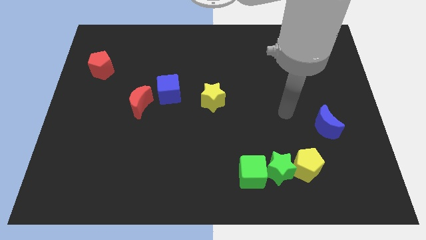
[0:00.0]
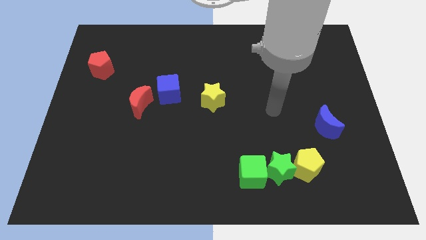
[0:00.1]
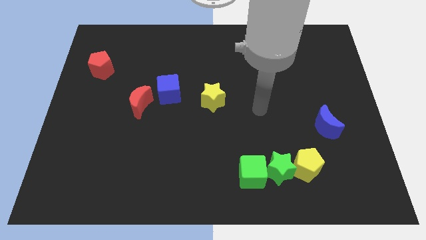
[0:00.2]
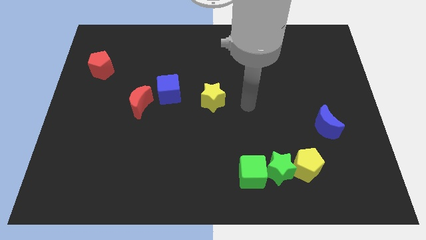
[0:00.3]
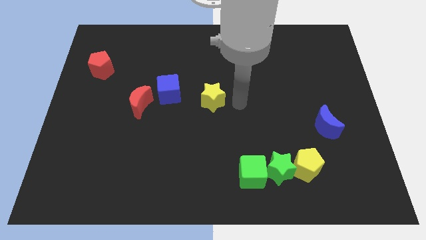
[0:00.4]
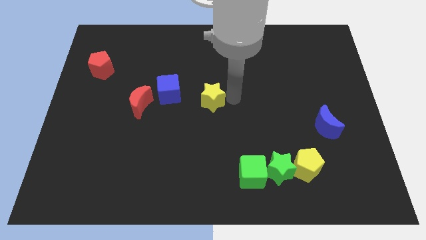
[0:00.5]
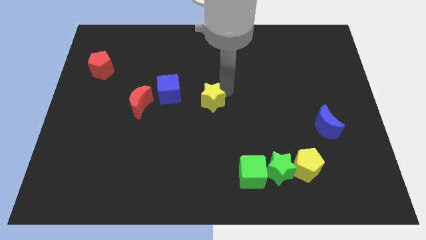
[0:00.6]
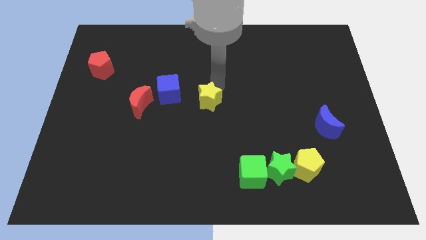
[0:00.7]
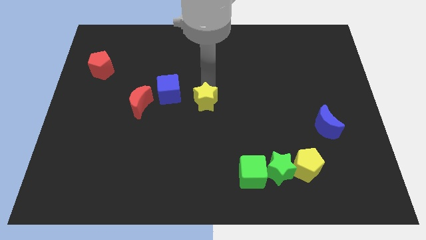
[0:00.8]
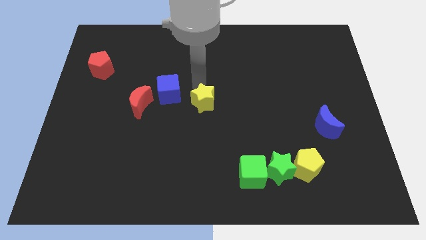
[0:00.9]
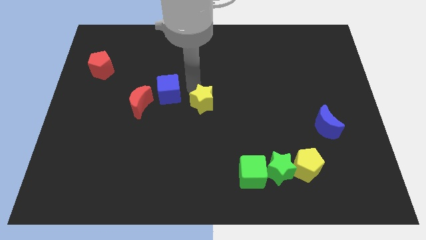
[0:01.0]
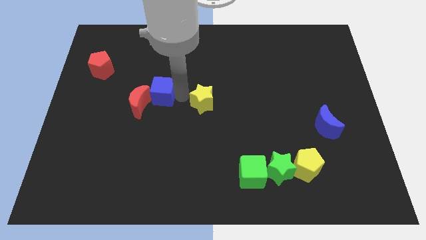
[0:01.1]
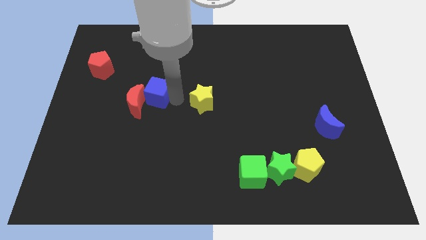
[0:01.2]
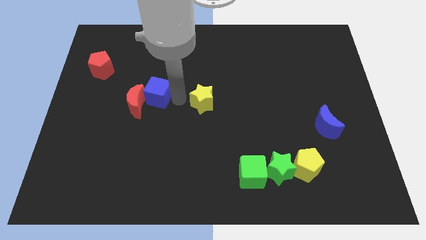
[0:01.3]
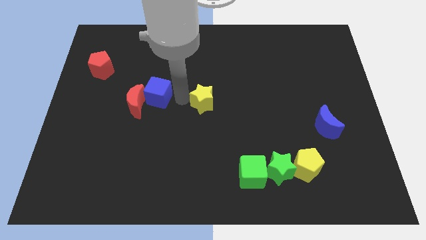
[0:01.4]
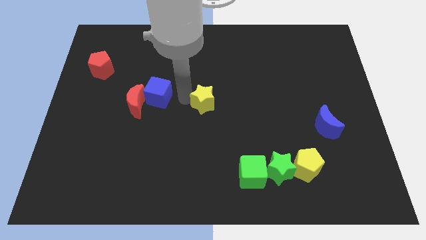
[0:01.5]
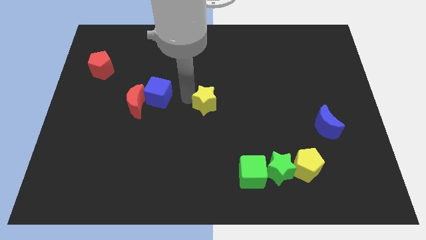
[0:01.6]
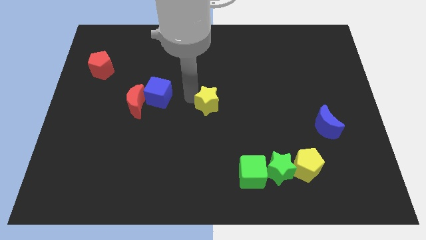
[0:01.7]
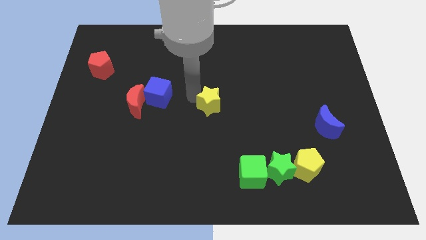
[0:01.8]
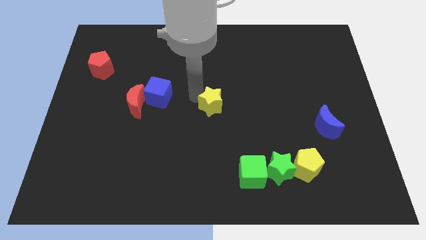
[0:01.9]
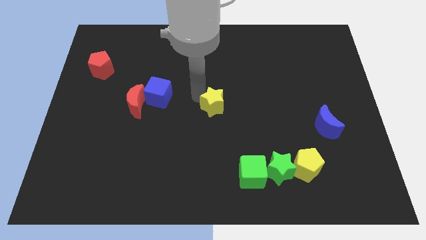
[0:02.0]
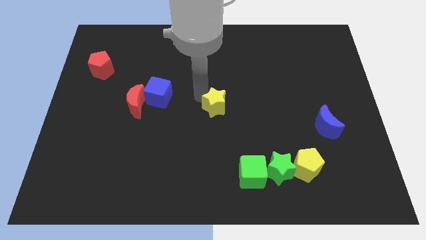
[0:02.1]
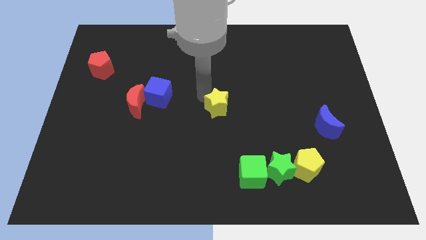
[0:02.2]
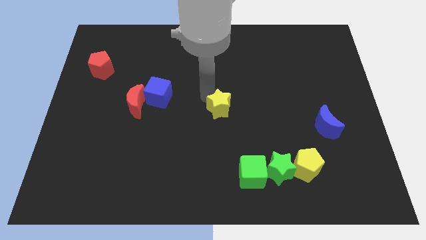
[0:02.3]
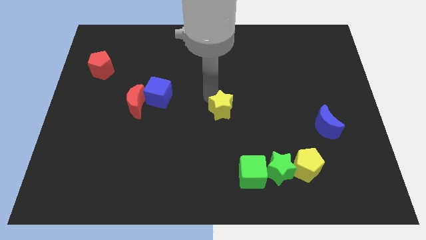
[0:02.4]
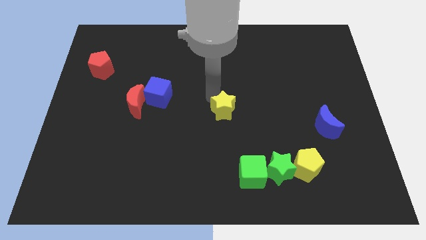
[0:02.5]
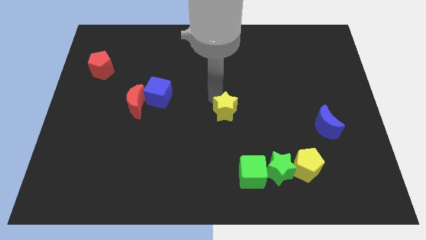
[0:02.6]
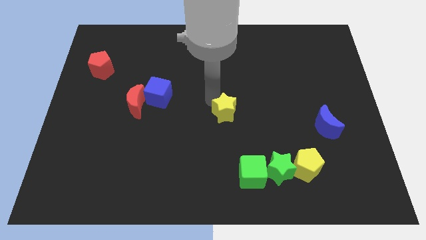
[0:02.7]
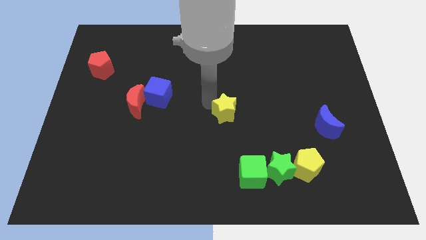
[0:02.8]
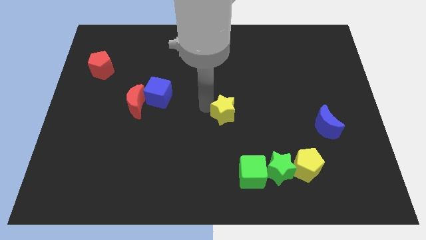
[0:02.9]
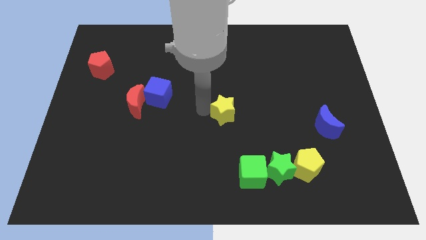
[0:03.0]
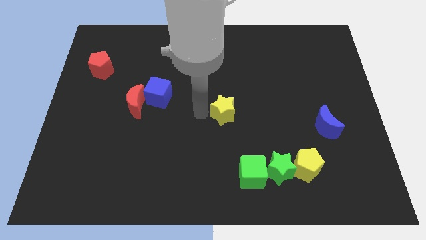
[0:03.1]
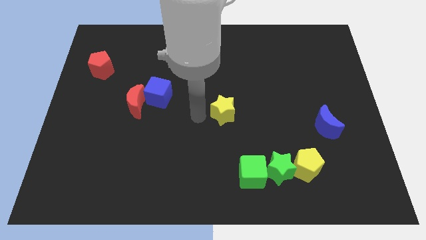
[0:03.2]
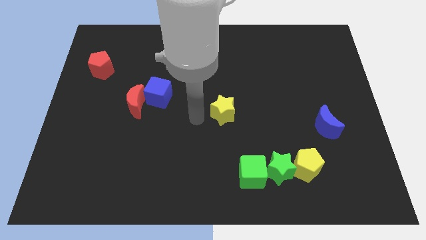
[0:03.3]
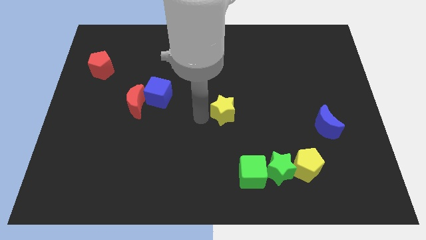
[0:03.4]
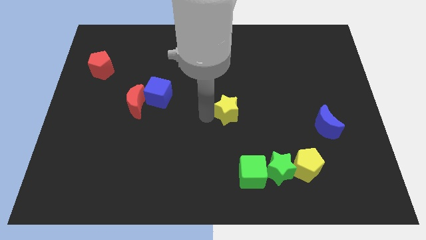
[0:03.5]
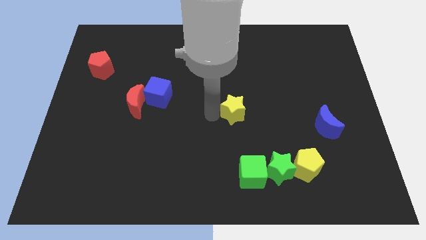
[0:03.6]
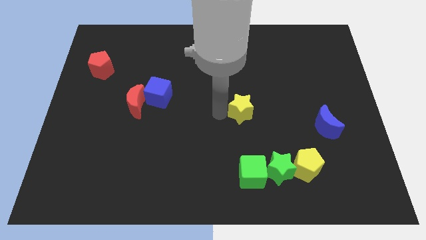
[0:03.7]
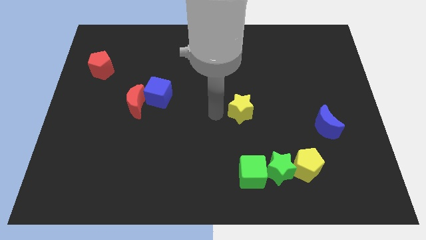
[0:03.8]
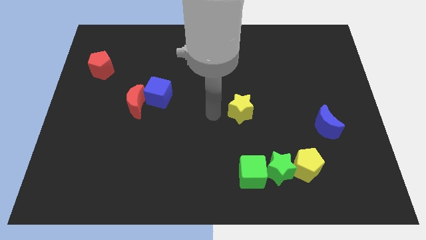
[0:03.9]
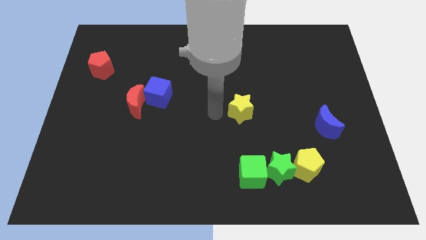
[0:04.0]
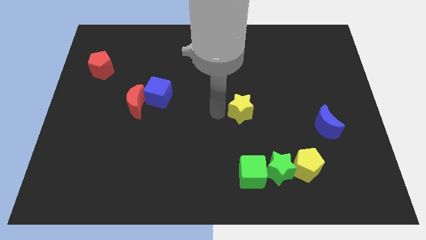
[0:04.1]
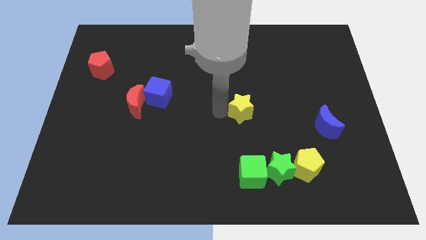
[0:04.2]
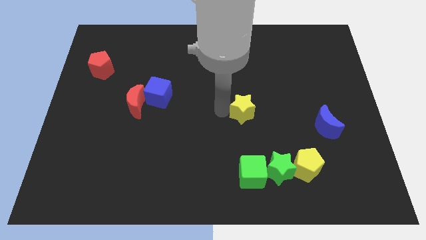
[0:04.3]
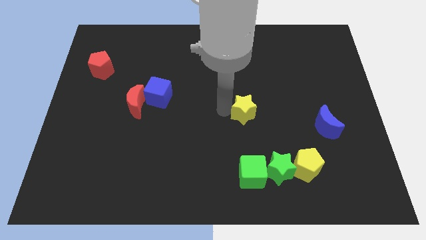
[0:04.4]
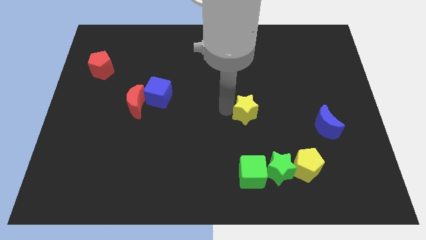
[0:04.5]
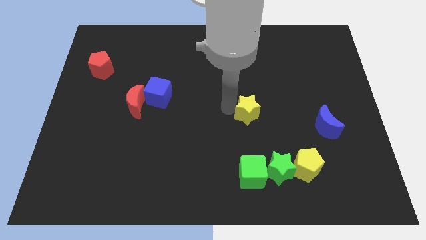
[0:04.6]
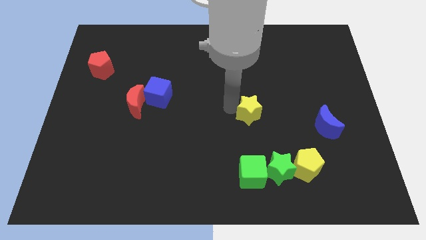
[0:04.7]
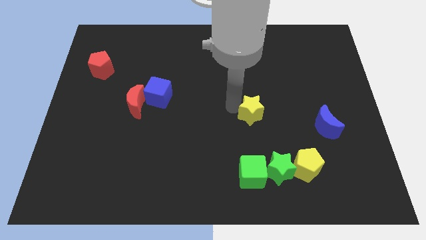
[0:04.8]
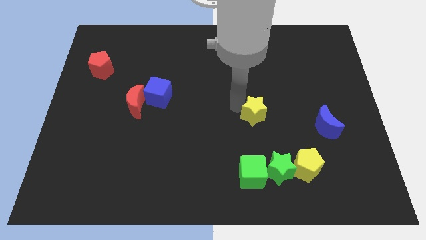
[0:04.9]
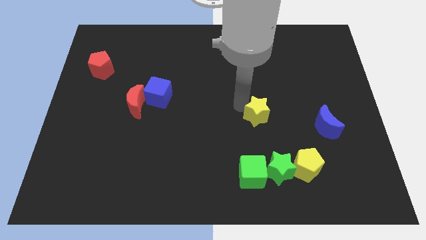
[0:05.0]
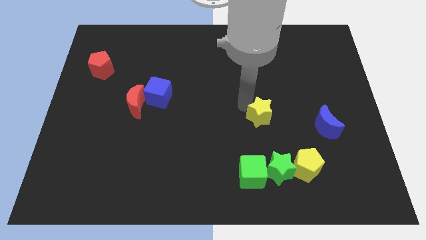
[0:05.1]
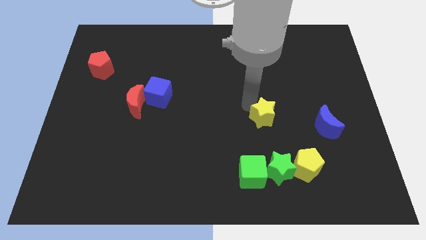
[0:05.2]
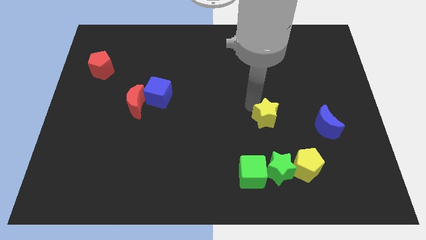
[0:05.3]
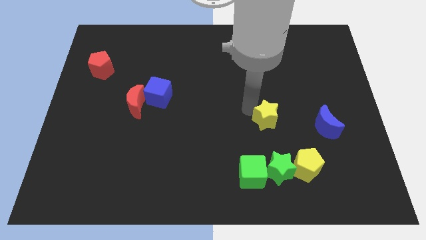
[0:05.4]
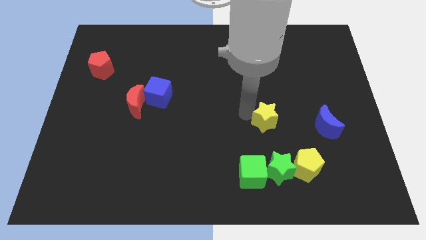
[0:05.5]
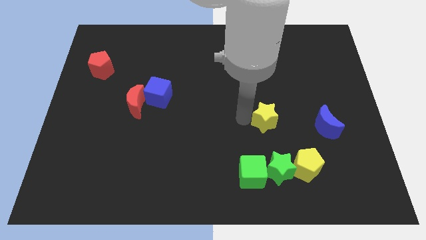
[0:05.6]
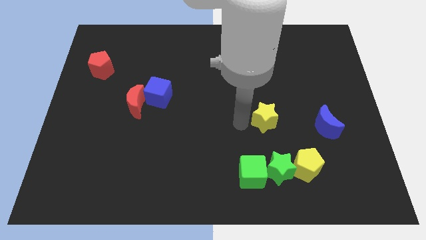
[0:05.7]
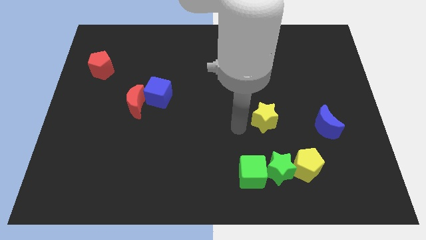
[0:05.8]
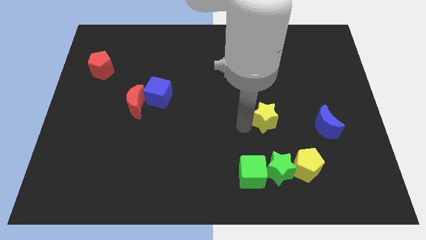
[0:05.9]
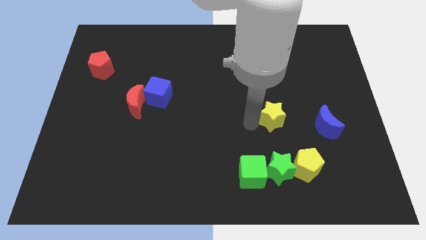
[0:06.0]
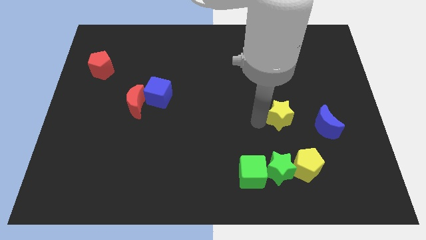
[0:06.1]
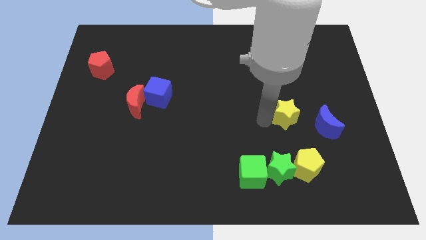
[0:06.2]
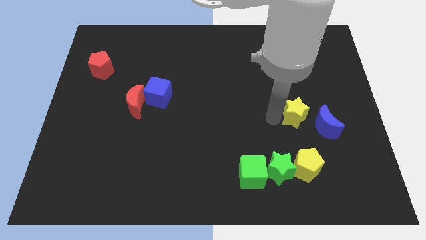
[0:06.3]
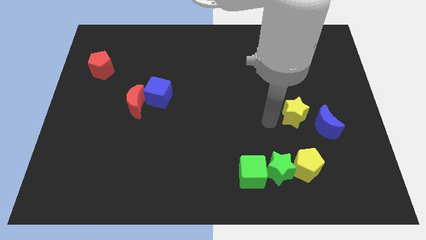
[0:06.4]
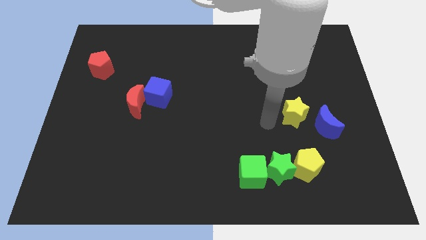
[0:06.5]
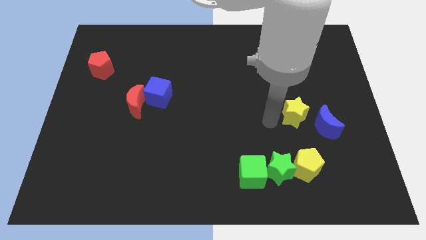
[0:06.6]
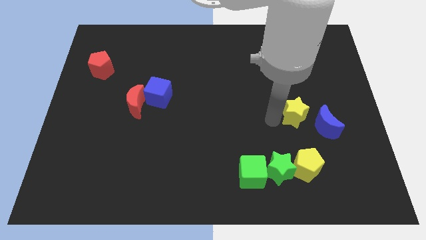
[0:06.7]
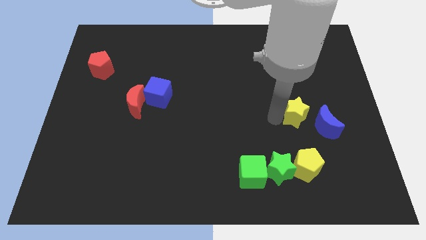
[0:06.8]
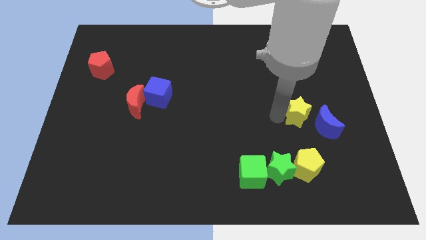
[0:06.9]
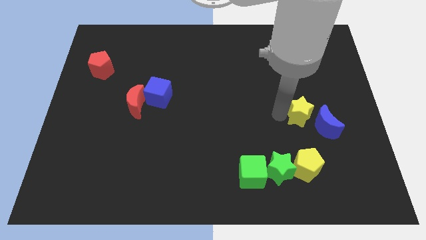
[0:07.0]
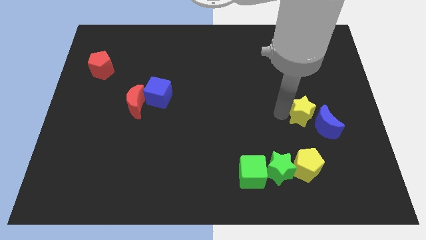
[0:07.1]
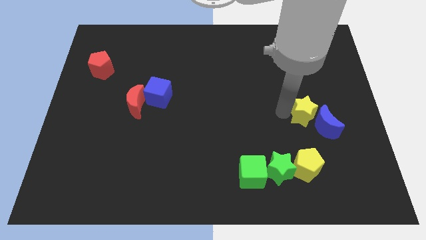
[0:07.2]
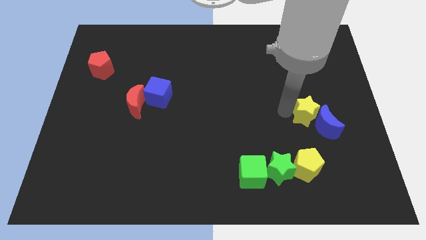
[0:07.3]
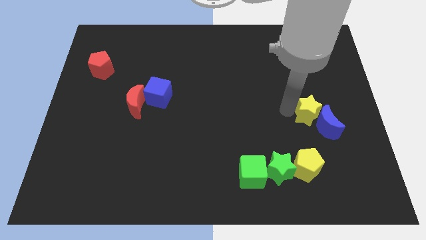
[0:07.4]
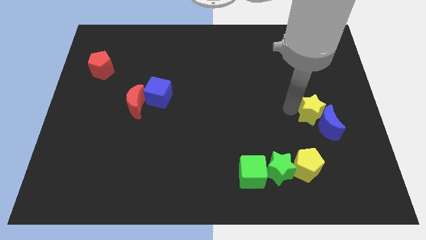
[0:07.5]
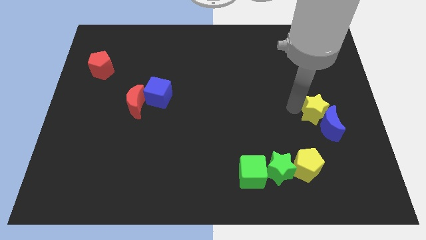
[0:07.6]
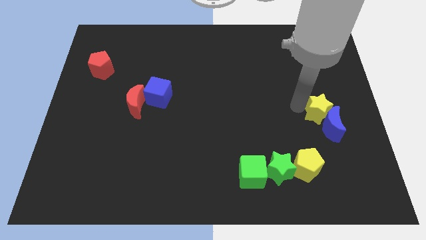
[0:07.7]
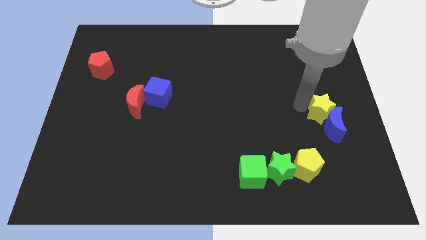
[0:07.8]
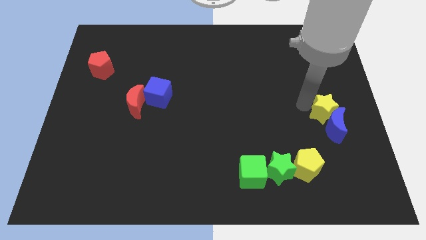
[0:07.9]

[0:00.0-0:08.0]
push the yellow star to the right side
